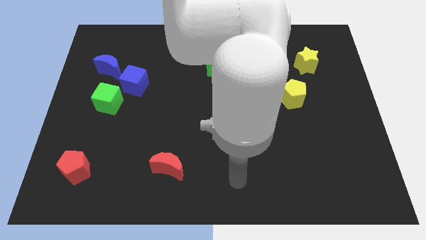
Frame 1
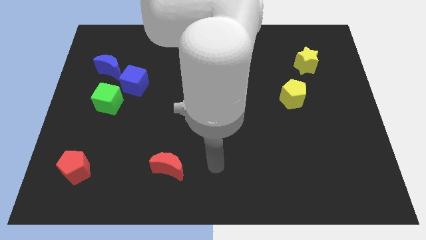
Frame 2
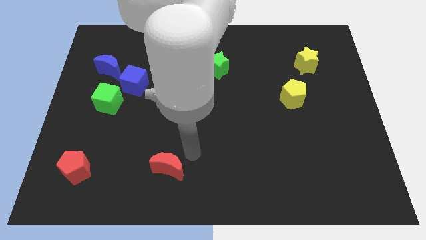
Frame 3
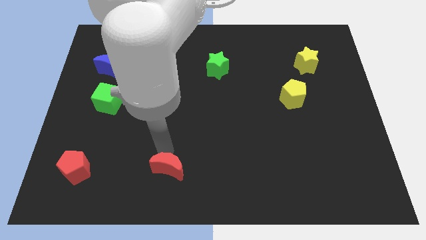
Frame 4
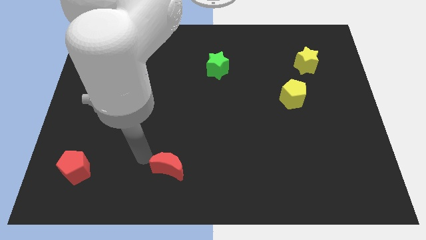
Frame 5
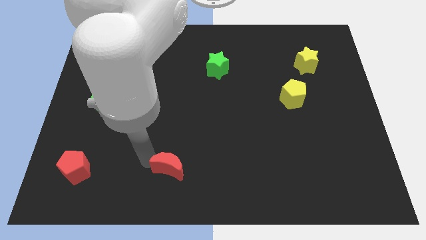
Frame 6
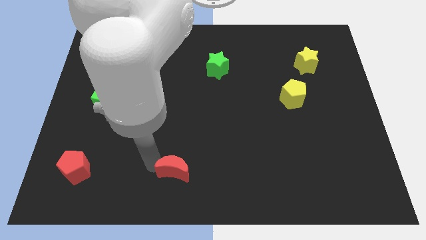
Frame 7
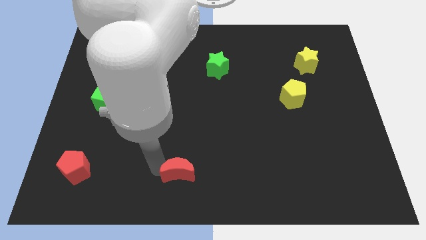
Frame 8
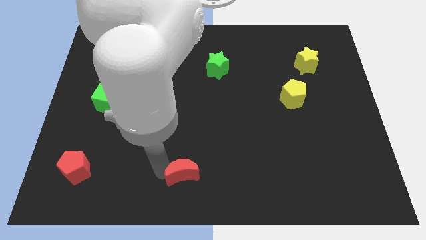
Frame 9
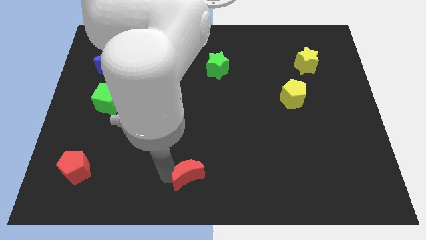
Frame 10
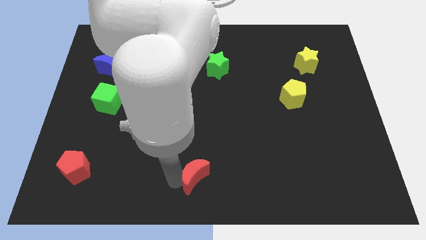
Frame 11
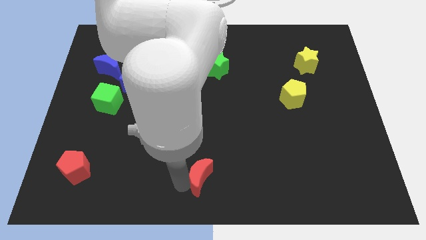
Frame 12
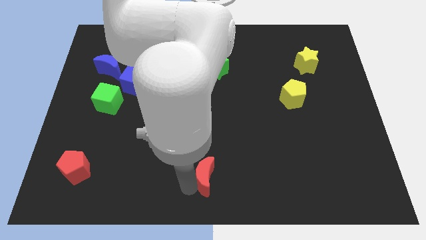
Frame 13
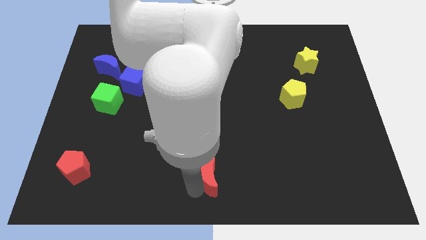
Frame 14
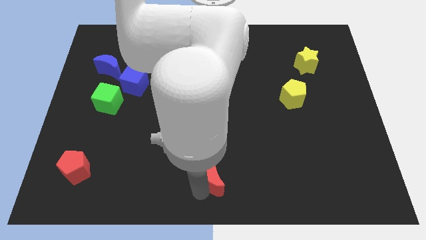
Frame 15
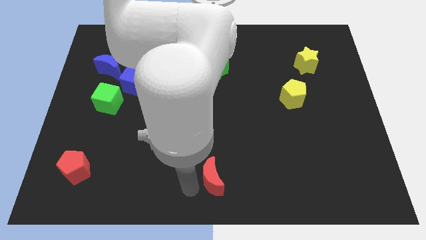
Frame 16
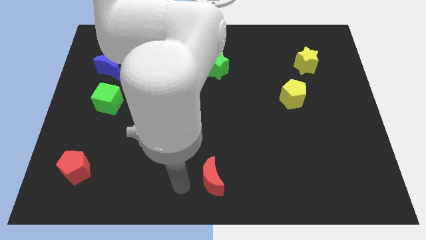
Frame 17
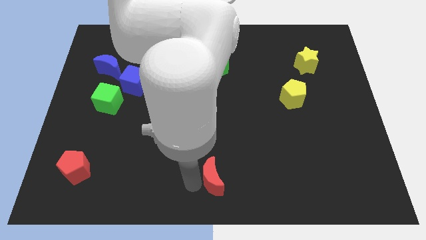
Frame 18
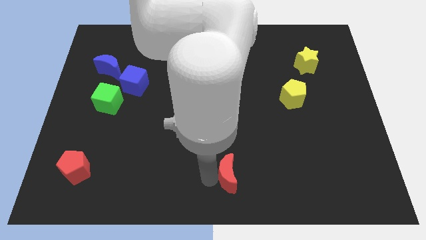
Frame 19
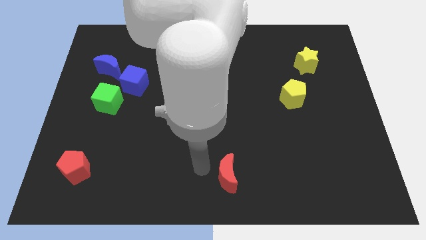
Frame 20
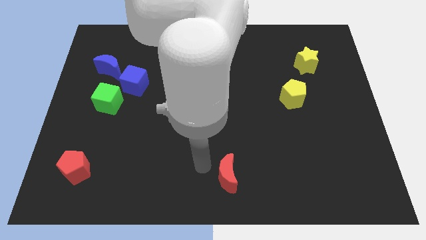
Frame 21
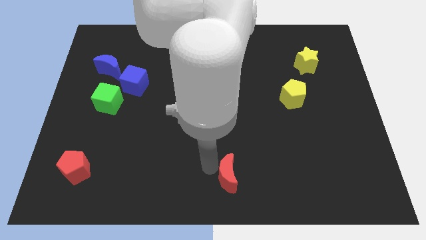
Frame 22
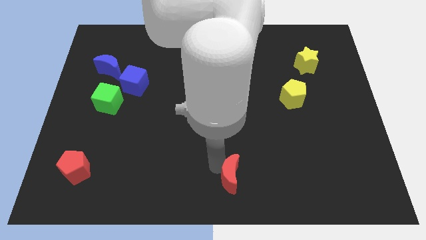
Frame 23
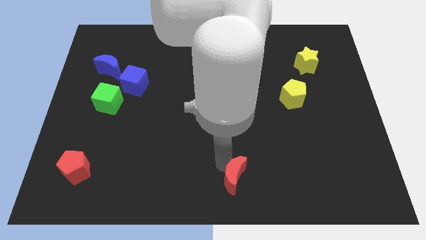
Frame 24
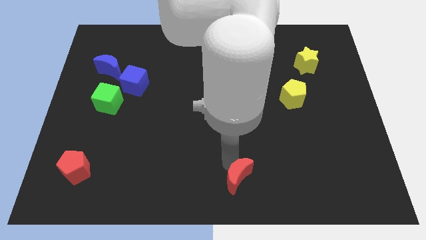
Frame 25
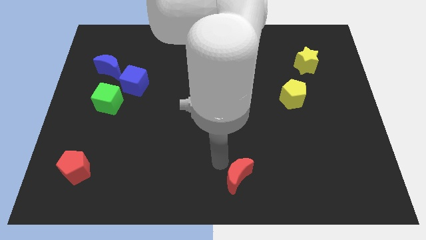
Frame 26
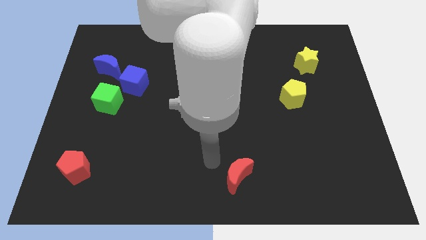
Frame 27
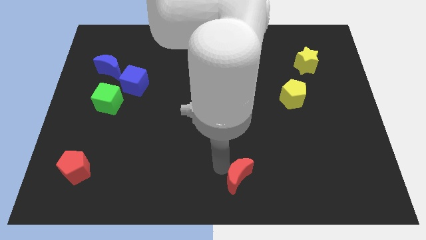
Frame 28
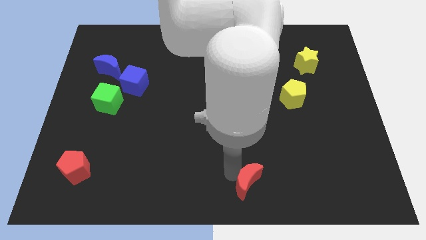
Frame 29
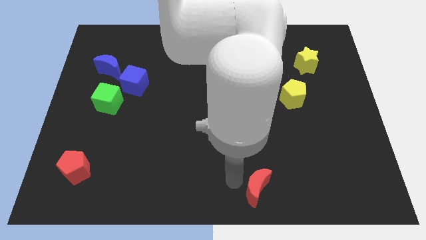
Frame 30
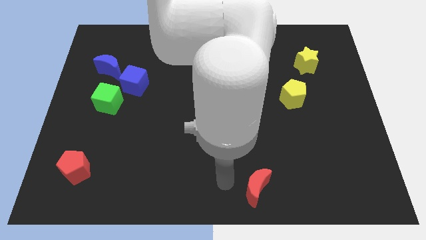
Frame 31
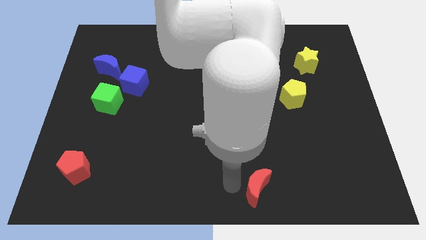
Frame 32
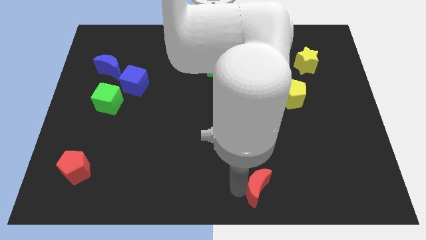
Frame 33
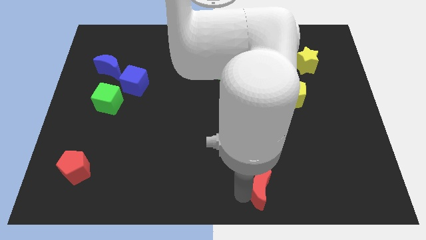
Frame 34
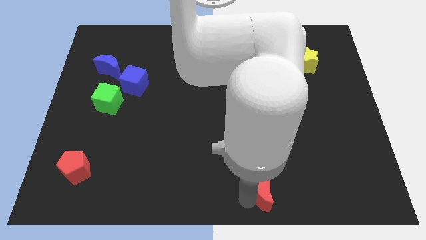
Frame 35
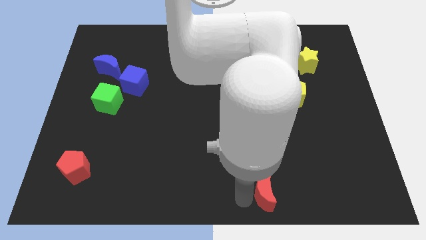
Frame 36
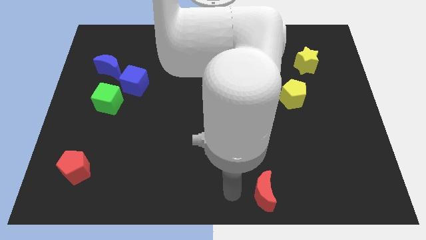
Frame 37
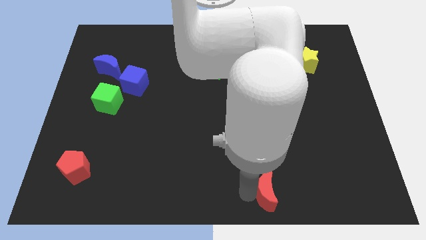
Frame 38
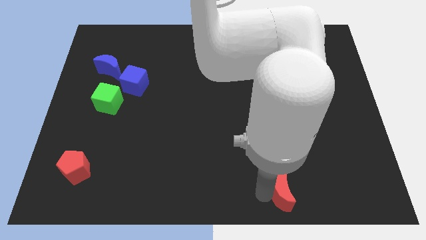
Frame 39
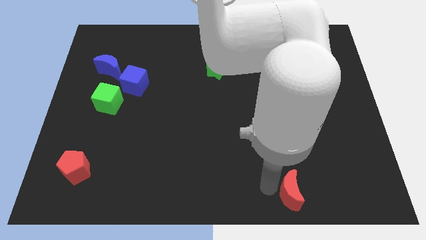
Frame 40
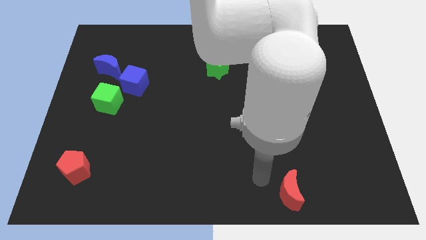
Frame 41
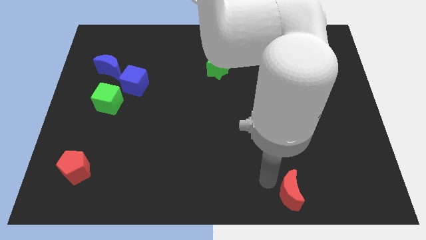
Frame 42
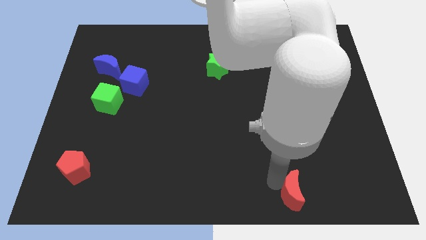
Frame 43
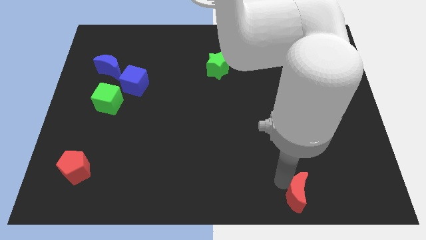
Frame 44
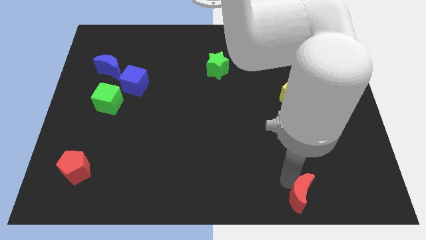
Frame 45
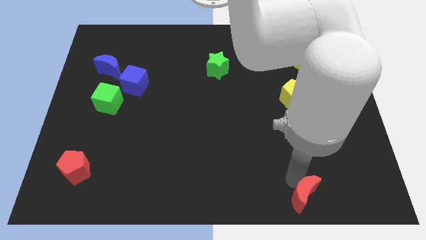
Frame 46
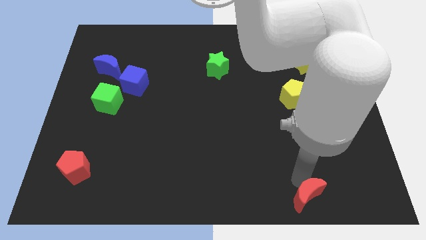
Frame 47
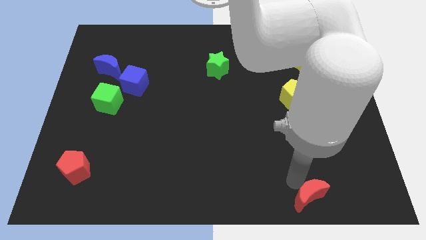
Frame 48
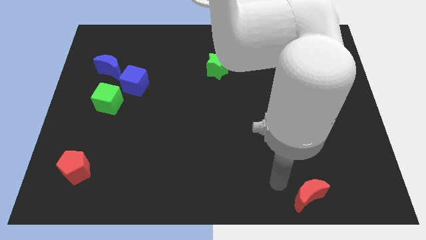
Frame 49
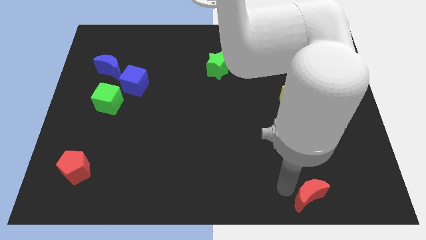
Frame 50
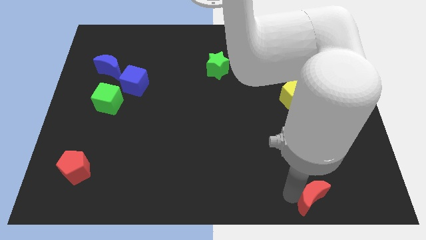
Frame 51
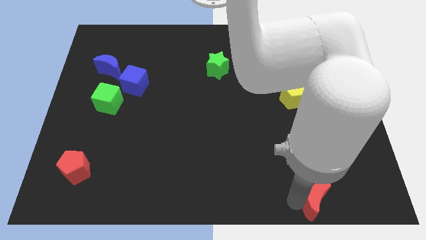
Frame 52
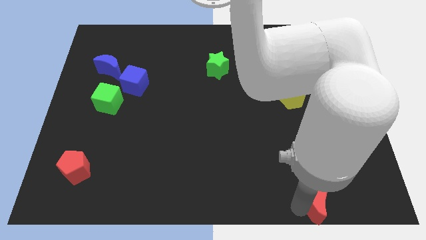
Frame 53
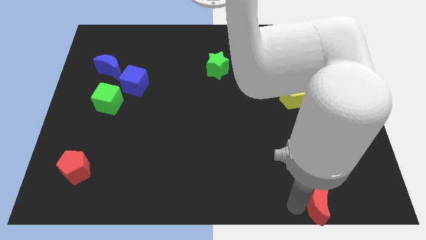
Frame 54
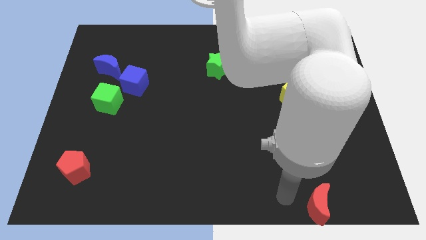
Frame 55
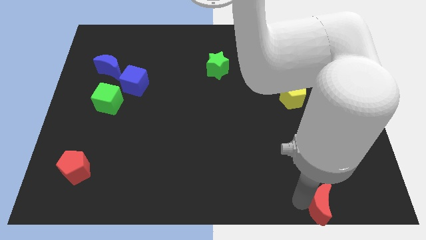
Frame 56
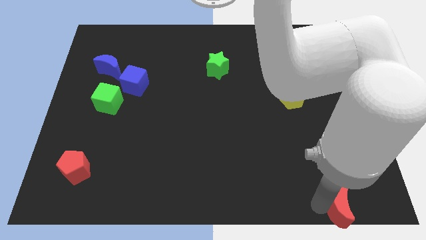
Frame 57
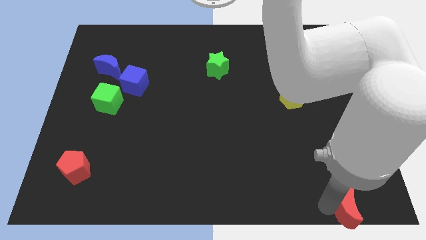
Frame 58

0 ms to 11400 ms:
put the red moon to the bottom right corner
